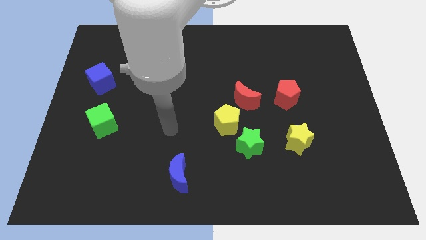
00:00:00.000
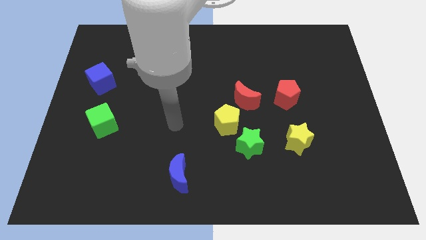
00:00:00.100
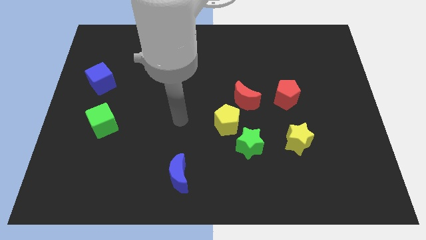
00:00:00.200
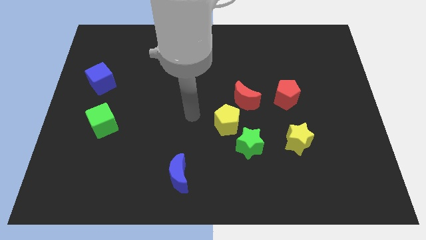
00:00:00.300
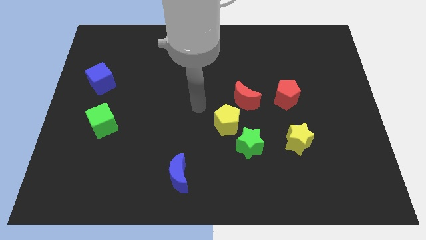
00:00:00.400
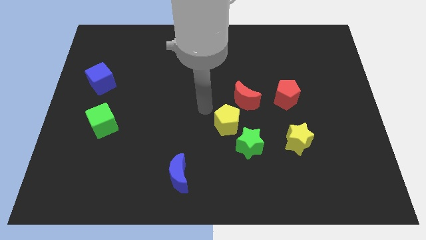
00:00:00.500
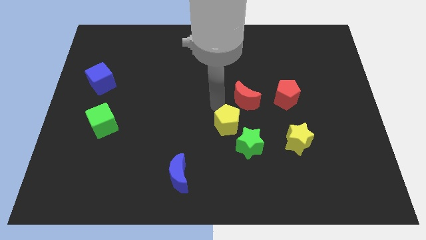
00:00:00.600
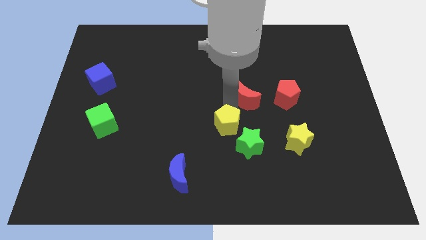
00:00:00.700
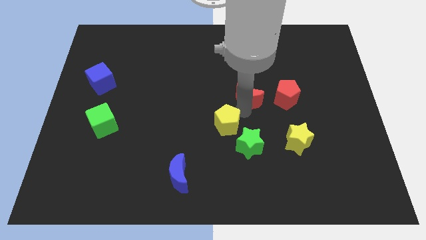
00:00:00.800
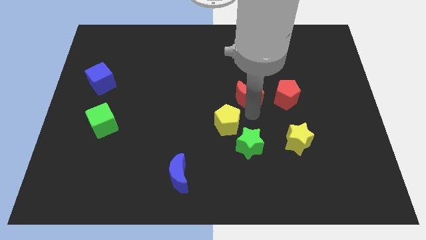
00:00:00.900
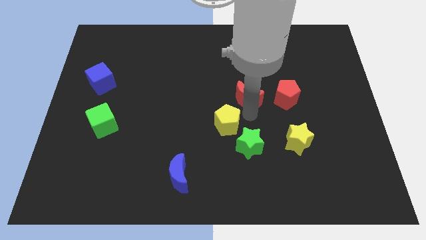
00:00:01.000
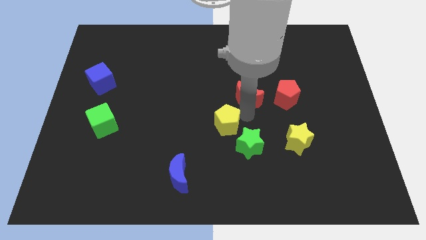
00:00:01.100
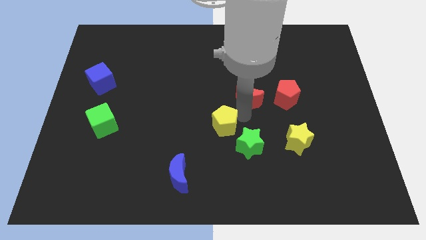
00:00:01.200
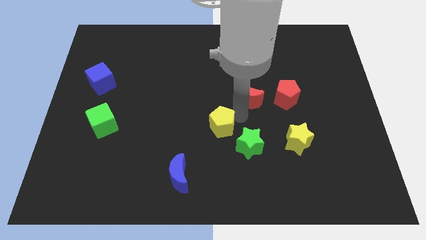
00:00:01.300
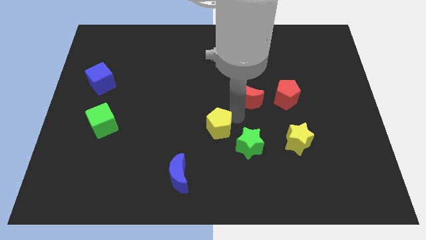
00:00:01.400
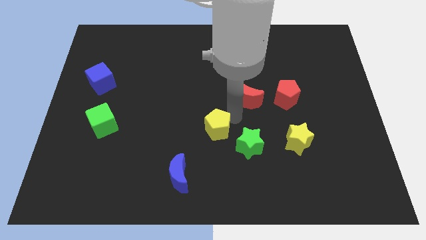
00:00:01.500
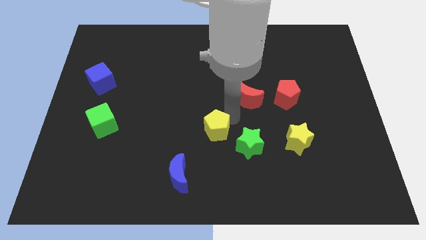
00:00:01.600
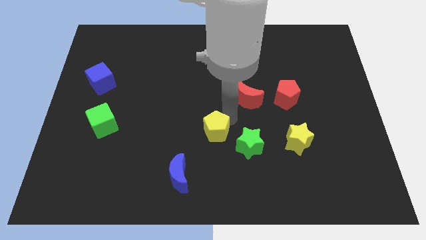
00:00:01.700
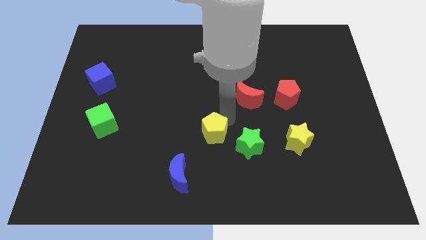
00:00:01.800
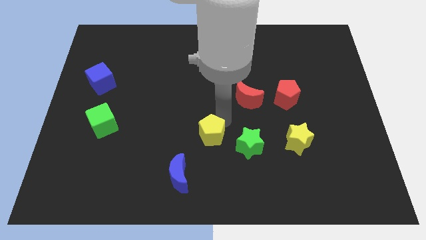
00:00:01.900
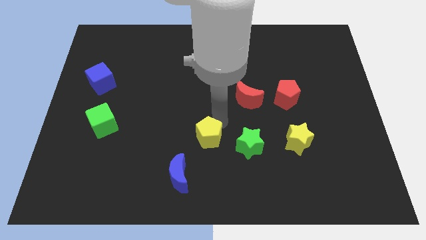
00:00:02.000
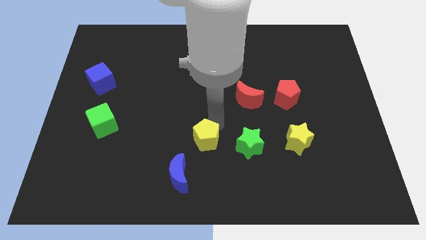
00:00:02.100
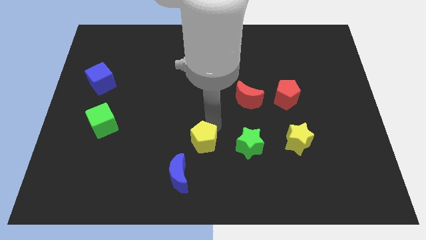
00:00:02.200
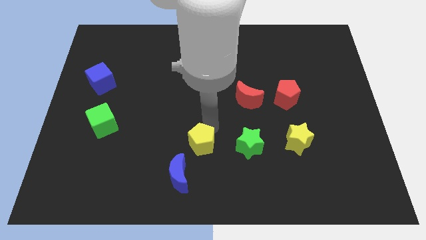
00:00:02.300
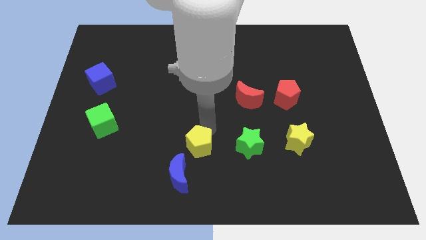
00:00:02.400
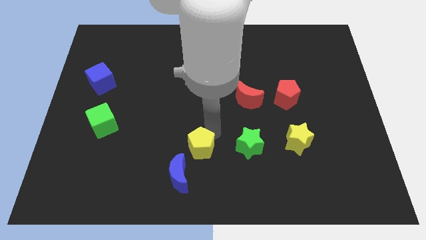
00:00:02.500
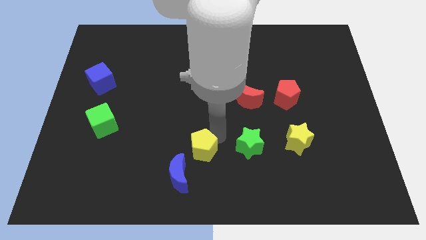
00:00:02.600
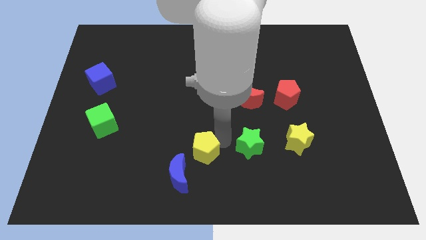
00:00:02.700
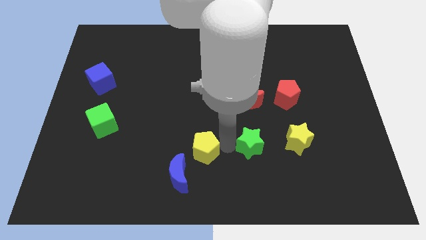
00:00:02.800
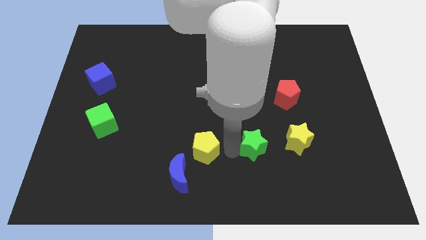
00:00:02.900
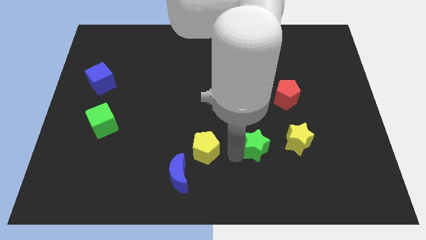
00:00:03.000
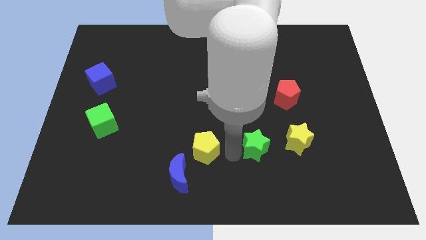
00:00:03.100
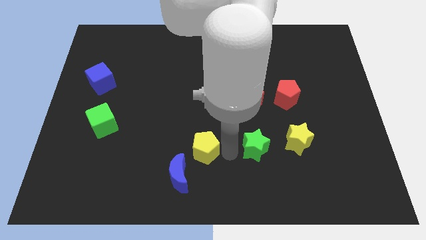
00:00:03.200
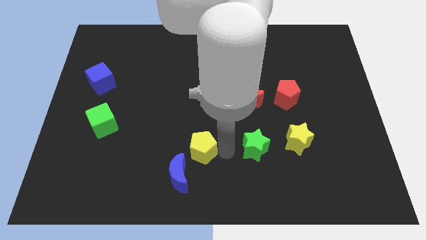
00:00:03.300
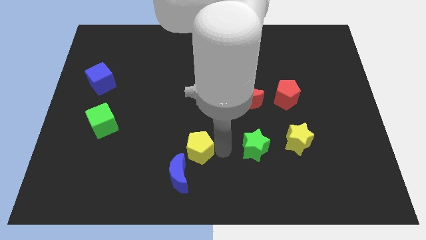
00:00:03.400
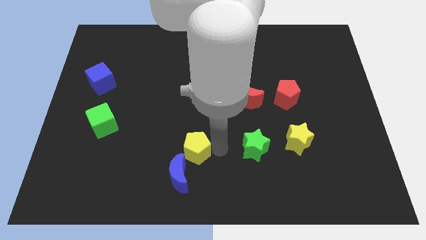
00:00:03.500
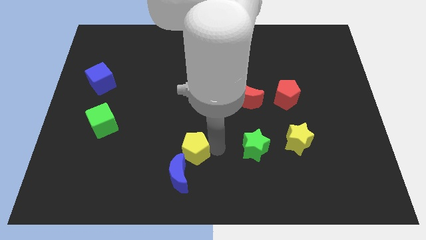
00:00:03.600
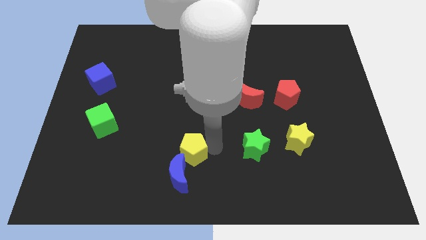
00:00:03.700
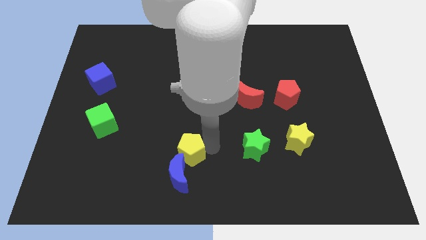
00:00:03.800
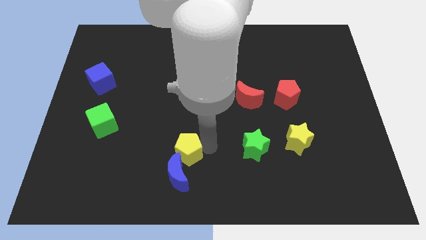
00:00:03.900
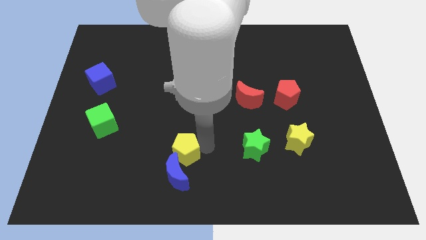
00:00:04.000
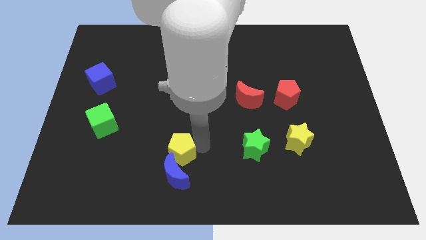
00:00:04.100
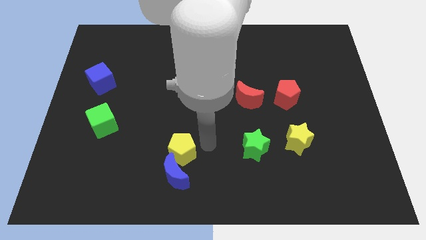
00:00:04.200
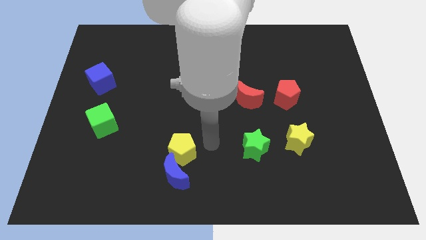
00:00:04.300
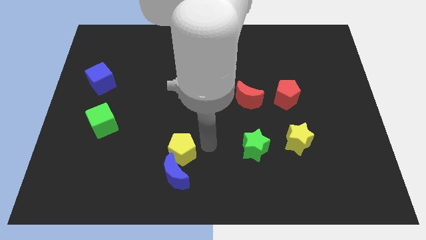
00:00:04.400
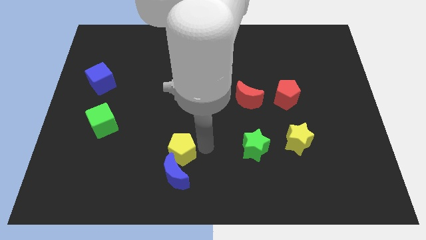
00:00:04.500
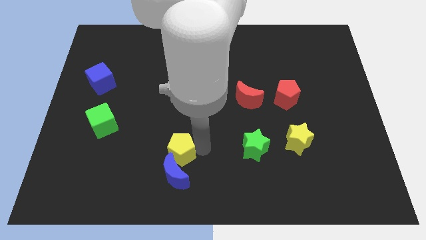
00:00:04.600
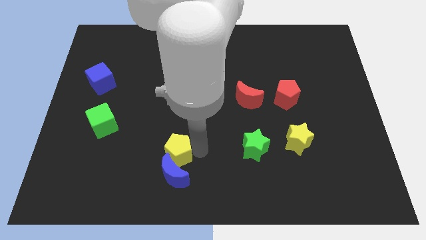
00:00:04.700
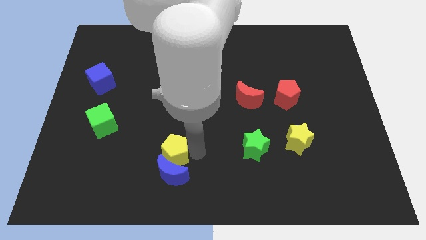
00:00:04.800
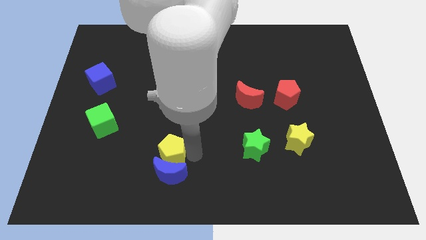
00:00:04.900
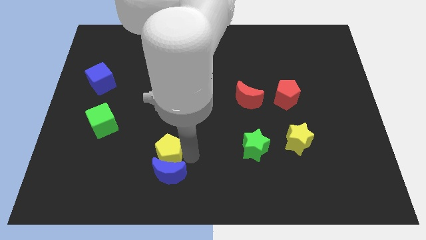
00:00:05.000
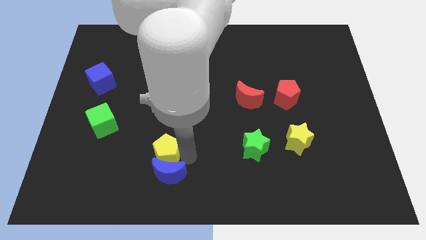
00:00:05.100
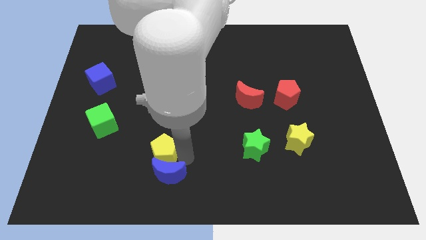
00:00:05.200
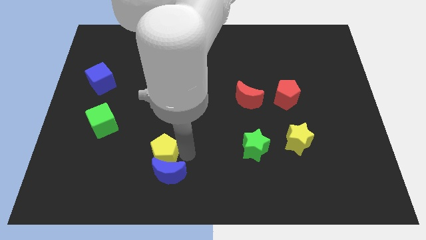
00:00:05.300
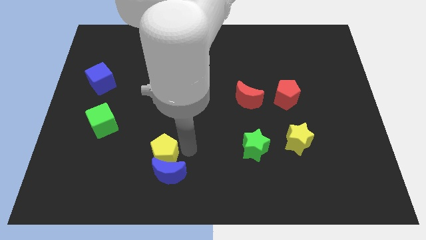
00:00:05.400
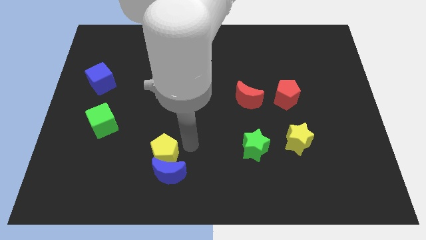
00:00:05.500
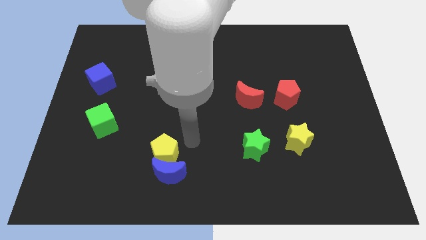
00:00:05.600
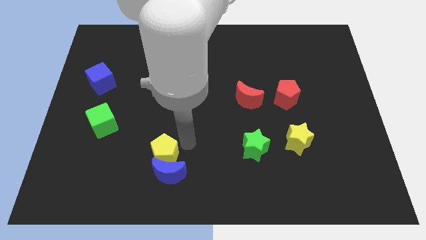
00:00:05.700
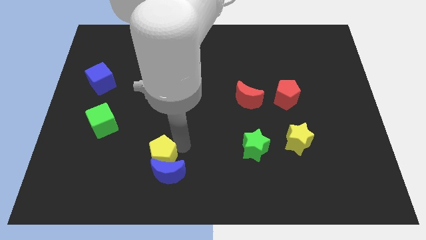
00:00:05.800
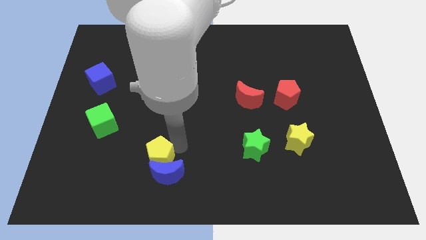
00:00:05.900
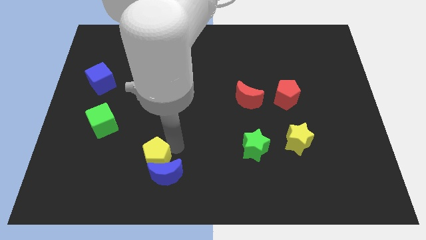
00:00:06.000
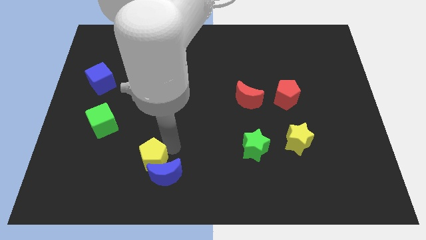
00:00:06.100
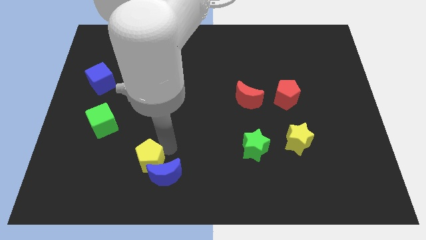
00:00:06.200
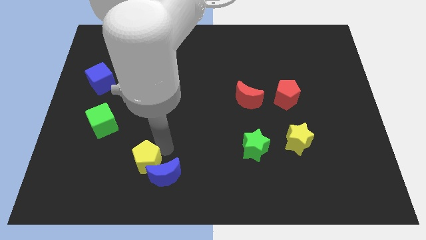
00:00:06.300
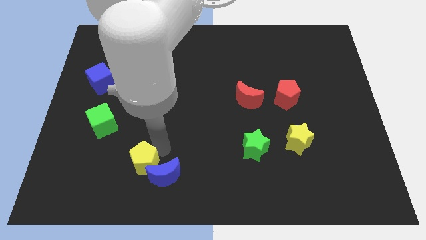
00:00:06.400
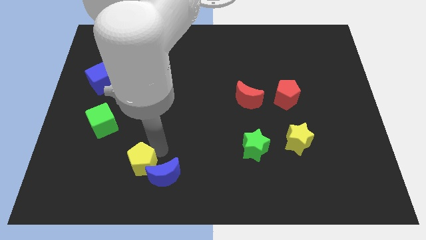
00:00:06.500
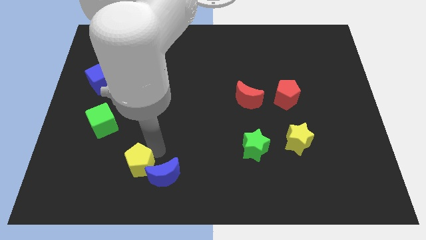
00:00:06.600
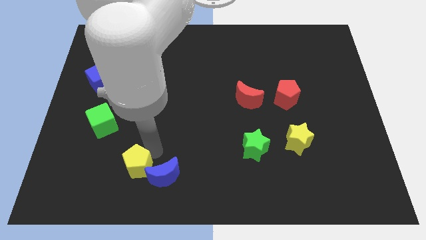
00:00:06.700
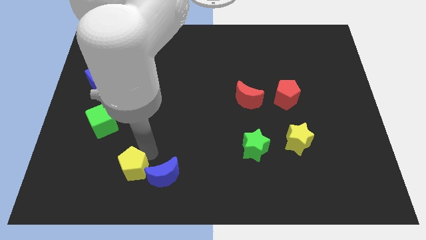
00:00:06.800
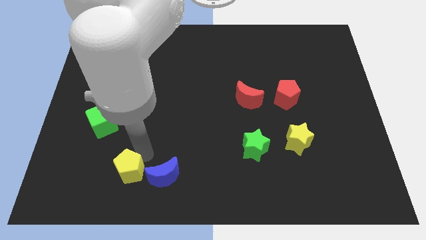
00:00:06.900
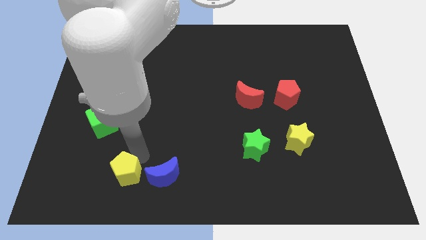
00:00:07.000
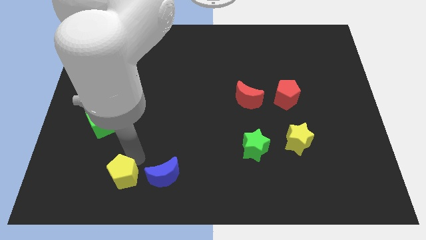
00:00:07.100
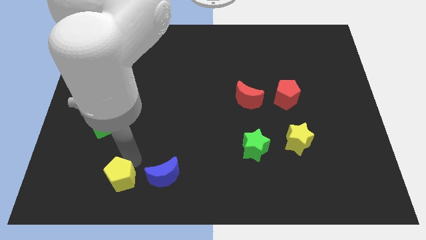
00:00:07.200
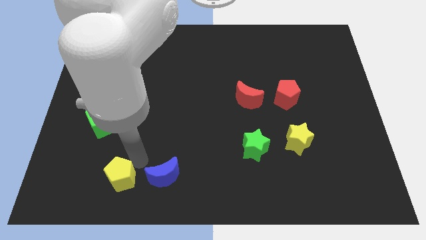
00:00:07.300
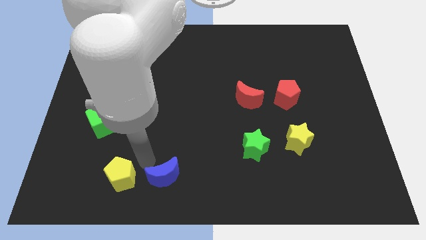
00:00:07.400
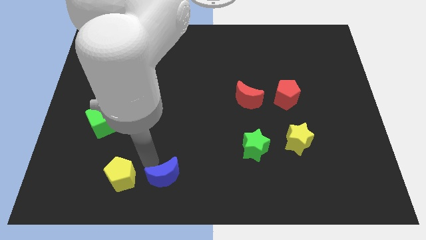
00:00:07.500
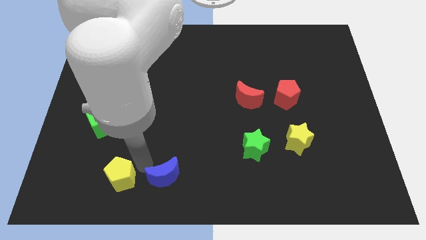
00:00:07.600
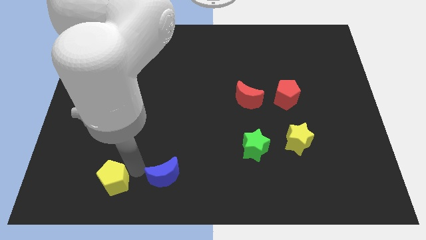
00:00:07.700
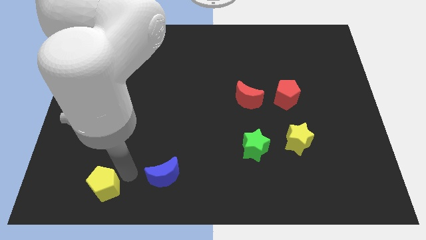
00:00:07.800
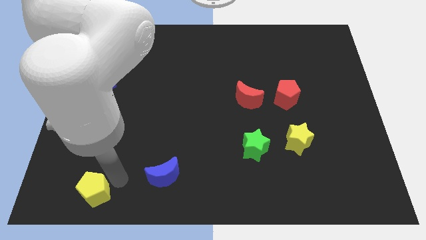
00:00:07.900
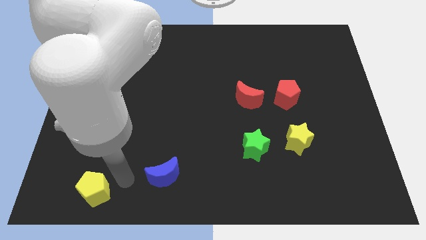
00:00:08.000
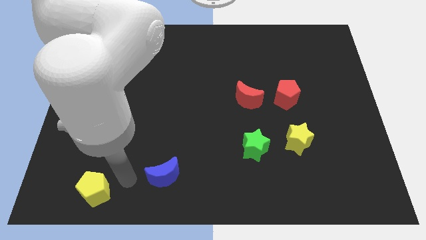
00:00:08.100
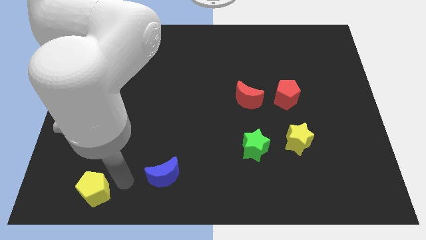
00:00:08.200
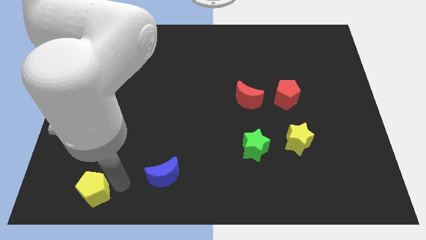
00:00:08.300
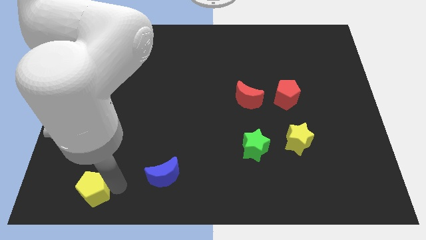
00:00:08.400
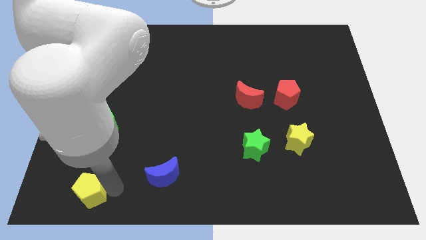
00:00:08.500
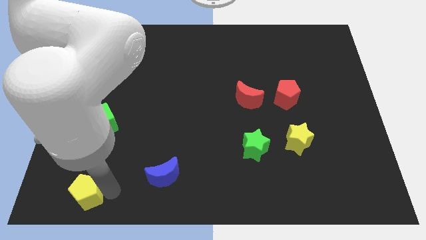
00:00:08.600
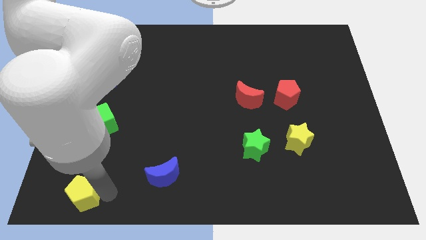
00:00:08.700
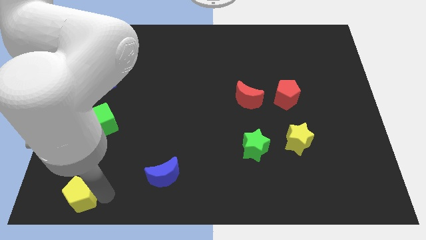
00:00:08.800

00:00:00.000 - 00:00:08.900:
push the yellow pentagon to the bottom left of the board
